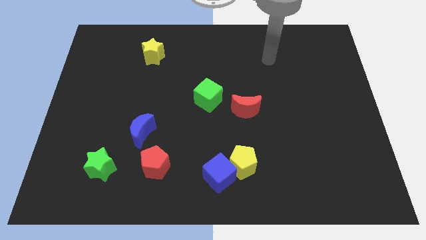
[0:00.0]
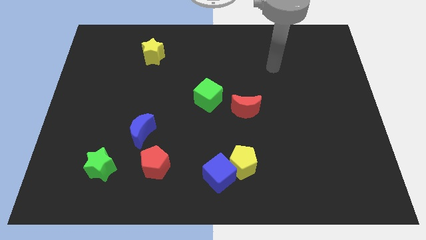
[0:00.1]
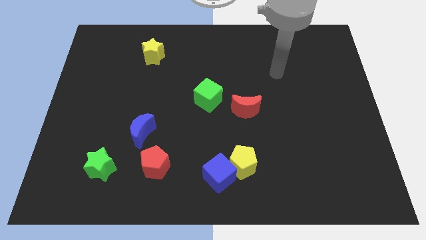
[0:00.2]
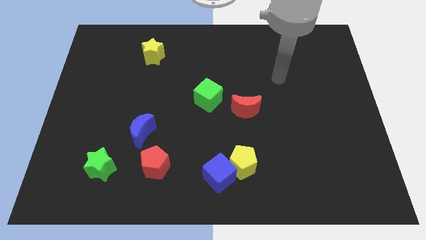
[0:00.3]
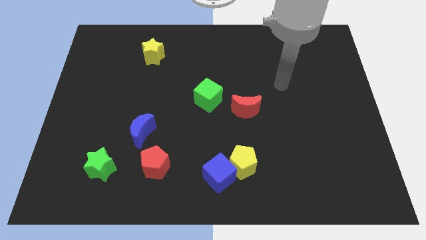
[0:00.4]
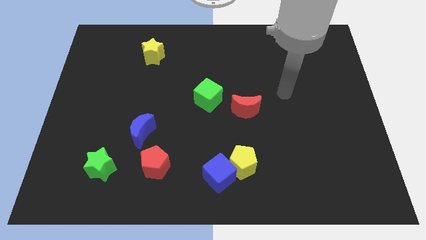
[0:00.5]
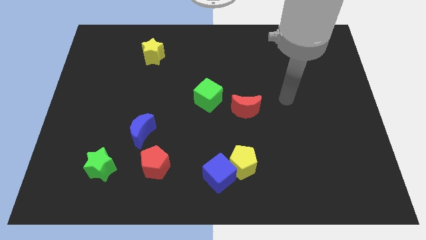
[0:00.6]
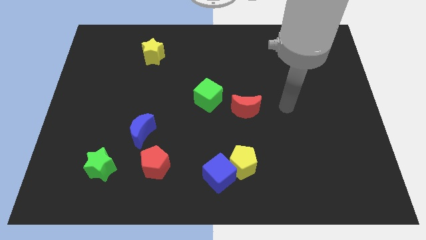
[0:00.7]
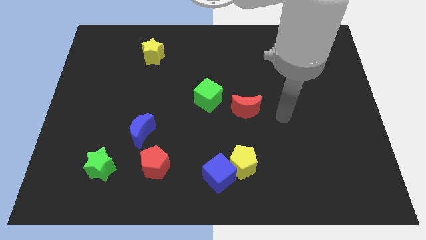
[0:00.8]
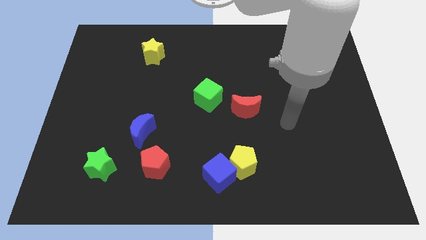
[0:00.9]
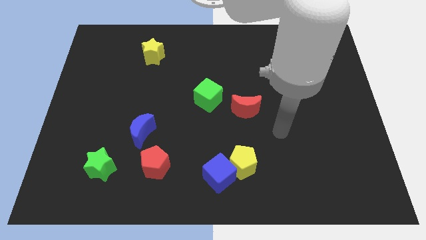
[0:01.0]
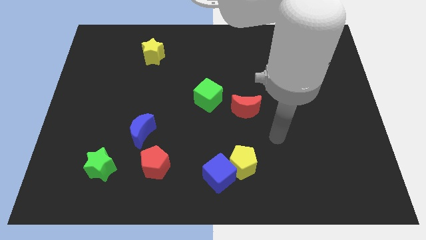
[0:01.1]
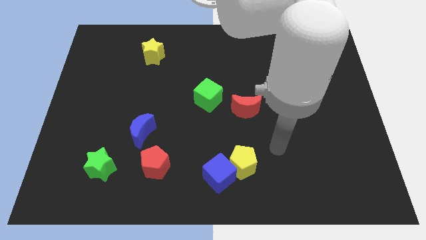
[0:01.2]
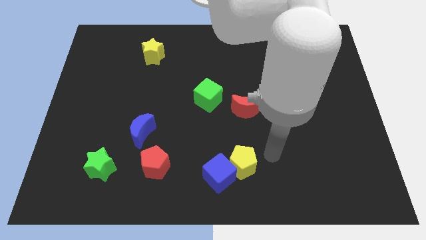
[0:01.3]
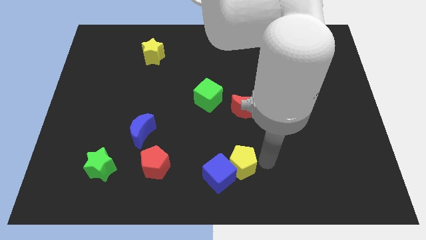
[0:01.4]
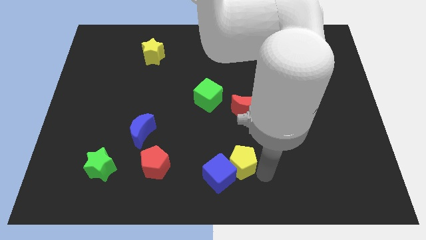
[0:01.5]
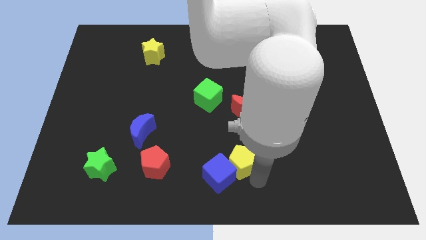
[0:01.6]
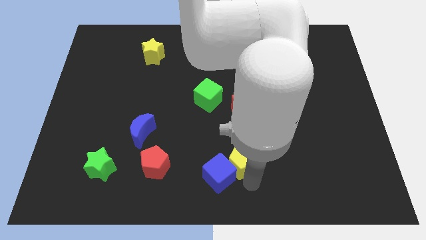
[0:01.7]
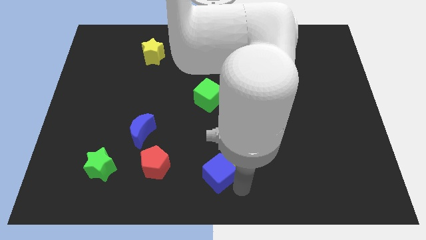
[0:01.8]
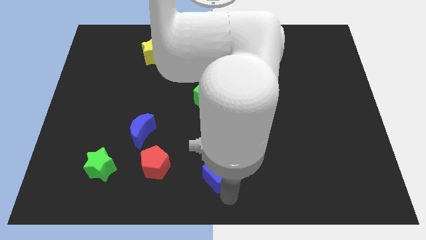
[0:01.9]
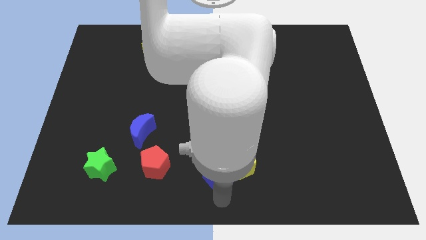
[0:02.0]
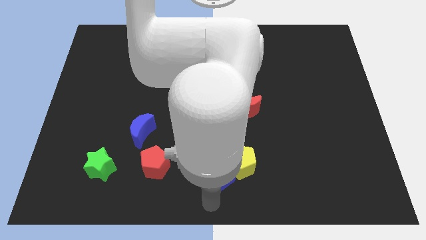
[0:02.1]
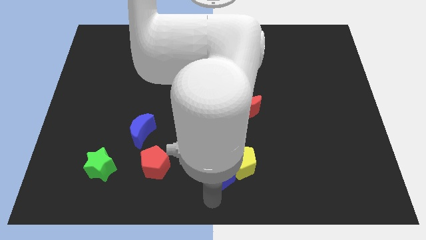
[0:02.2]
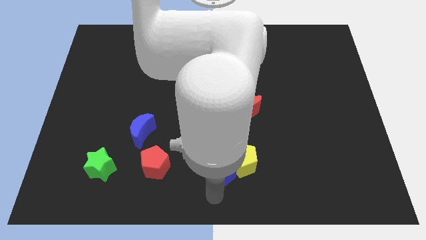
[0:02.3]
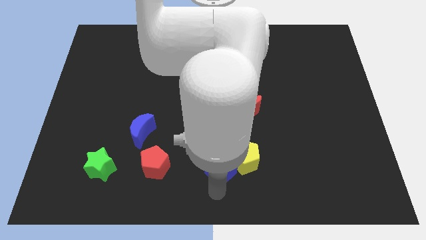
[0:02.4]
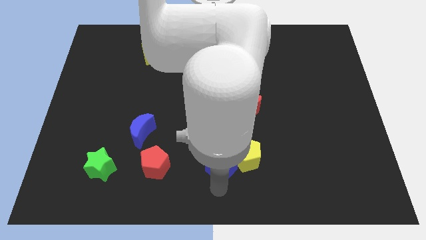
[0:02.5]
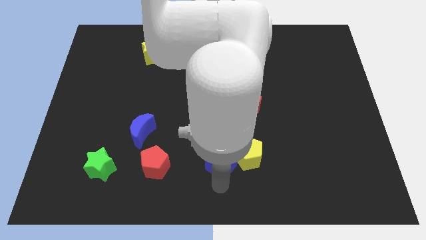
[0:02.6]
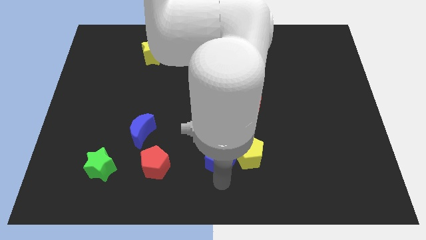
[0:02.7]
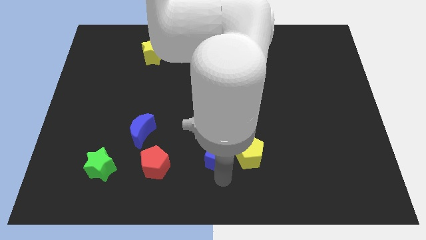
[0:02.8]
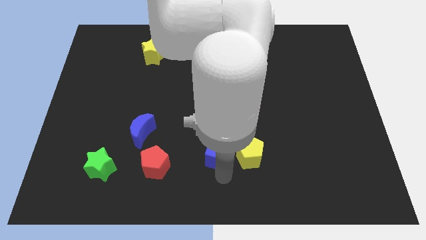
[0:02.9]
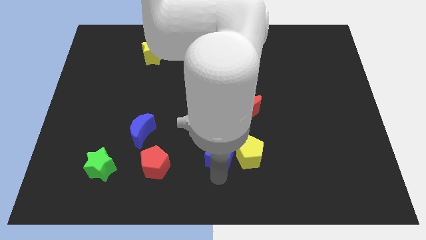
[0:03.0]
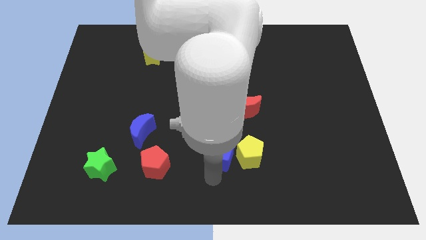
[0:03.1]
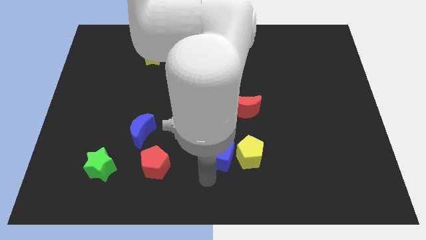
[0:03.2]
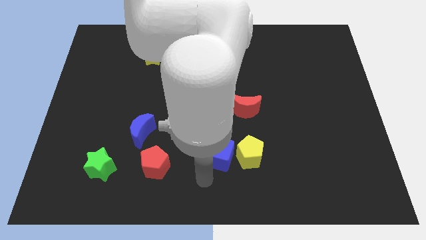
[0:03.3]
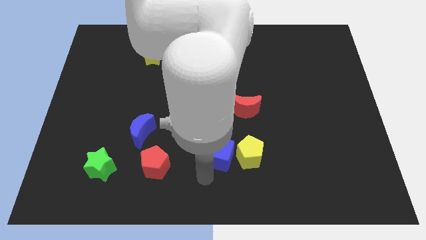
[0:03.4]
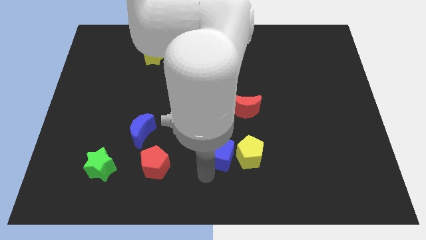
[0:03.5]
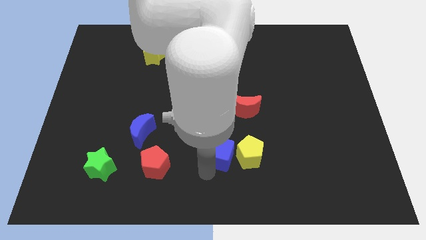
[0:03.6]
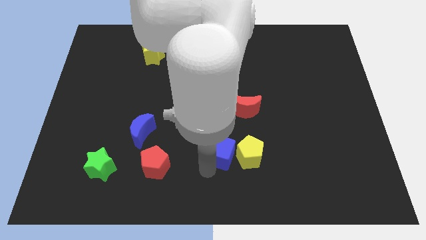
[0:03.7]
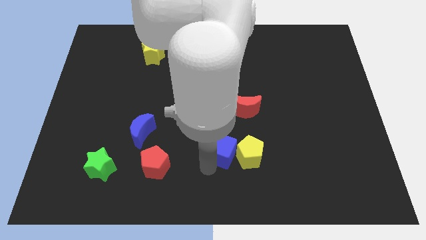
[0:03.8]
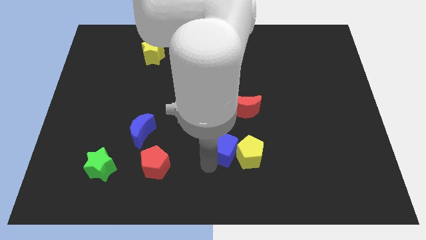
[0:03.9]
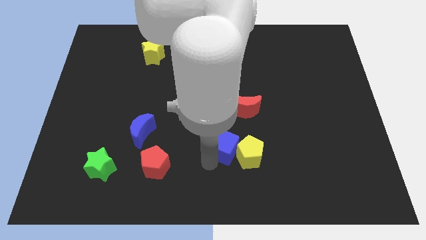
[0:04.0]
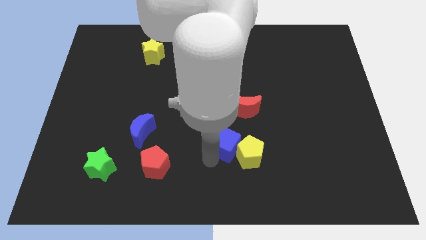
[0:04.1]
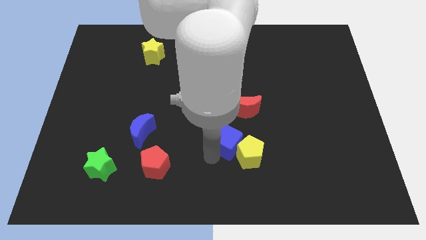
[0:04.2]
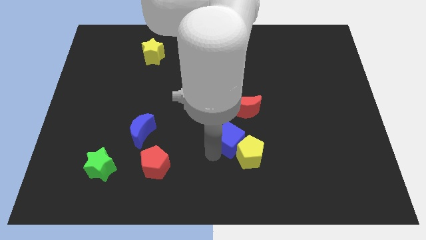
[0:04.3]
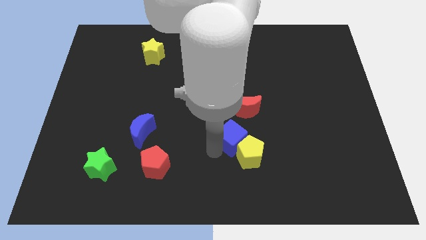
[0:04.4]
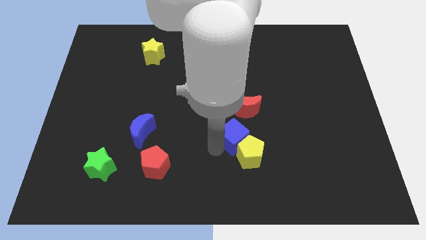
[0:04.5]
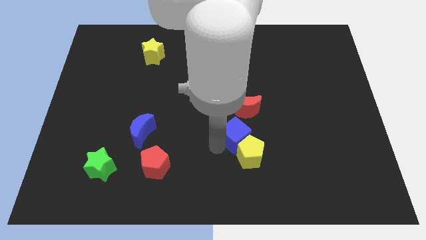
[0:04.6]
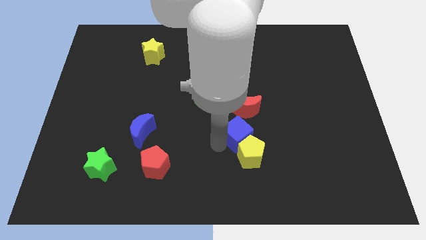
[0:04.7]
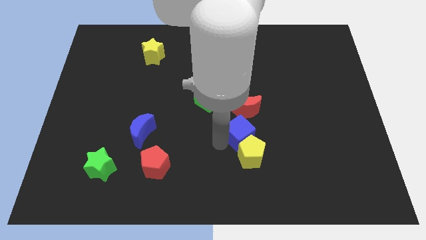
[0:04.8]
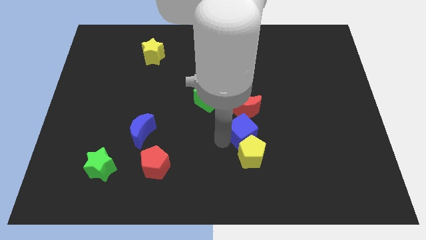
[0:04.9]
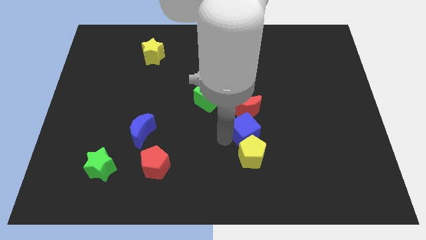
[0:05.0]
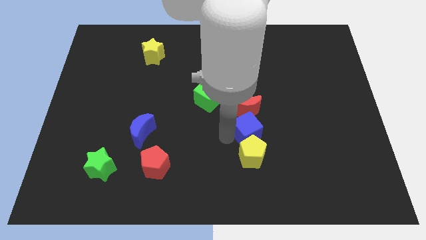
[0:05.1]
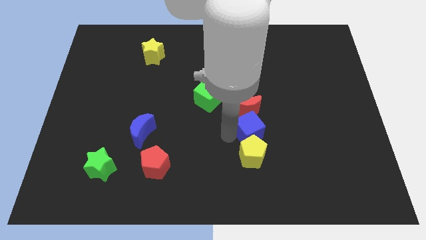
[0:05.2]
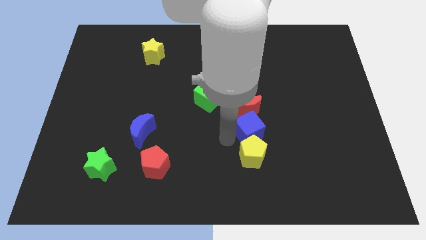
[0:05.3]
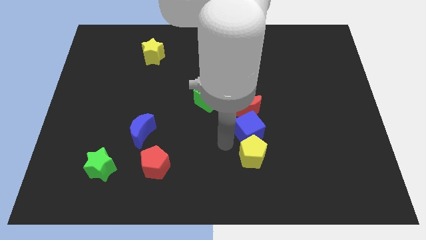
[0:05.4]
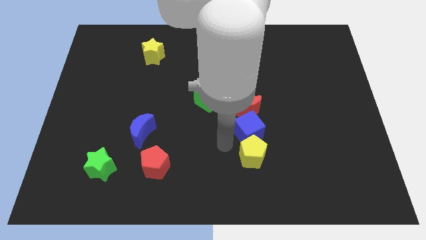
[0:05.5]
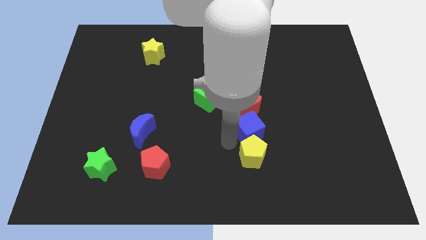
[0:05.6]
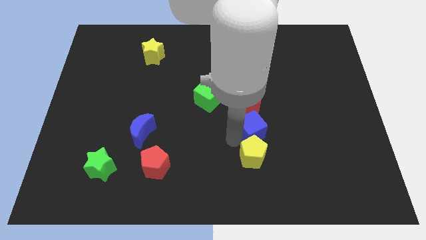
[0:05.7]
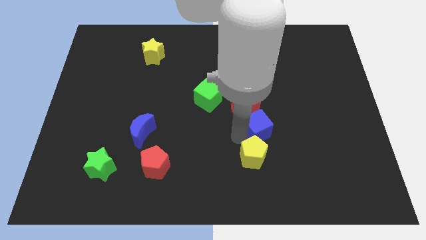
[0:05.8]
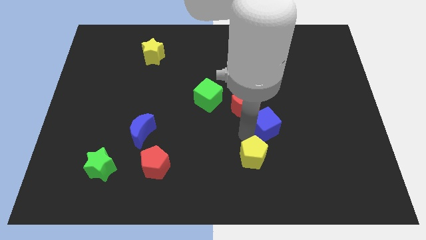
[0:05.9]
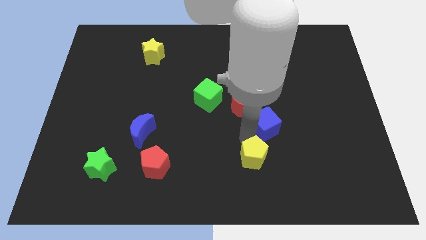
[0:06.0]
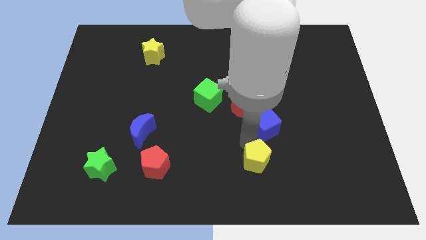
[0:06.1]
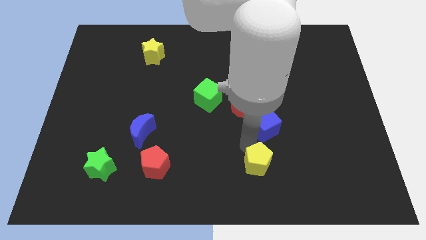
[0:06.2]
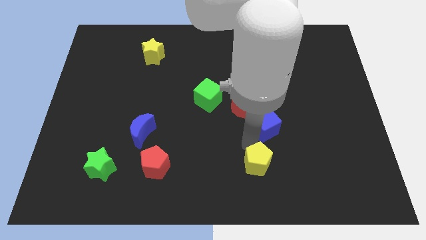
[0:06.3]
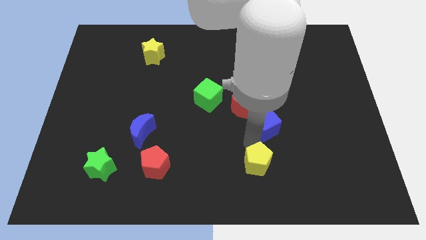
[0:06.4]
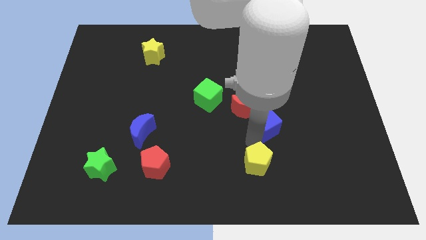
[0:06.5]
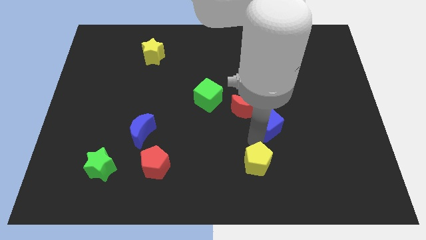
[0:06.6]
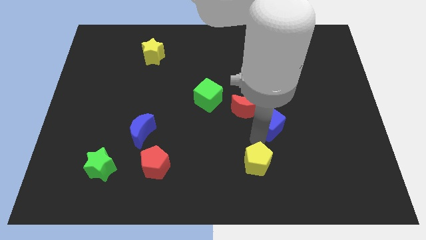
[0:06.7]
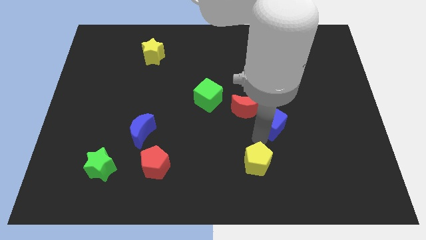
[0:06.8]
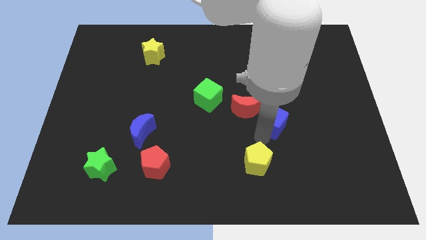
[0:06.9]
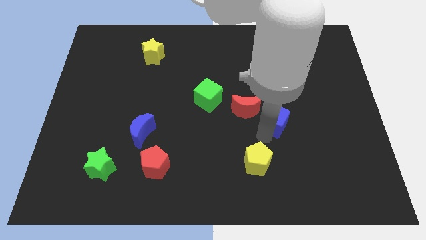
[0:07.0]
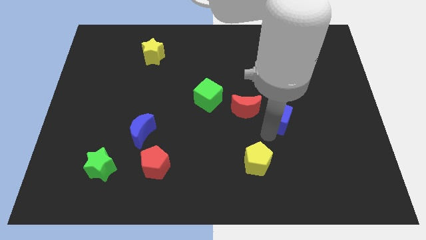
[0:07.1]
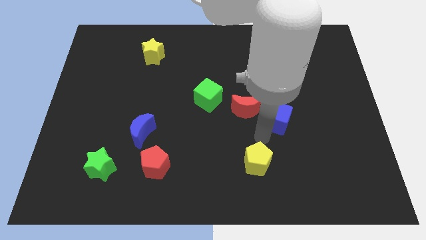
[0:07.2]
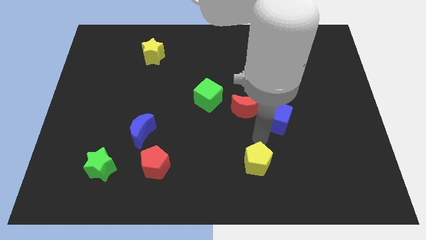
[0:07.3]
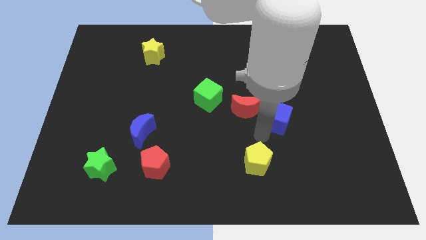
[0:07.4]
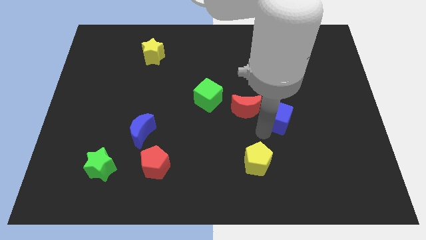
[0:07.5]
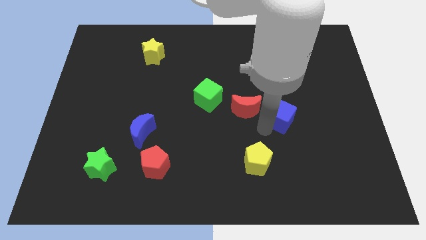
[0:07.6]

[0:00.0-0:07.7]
slide the blue cube diagonally upwards and right

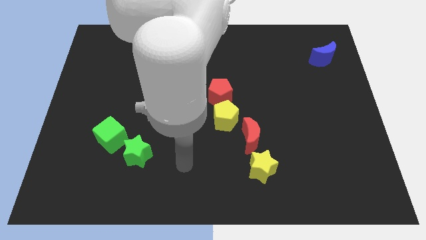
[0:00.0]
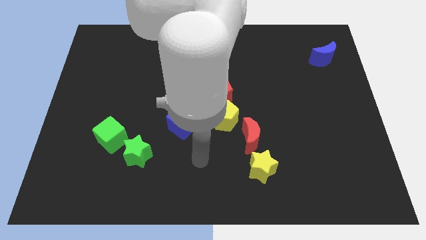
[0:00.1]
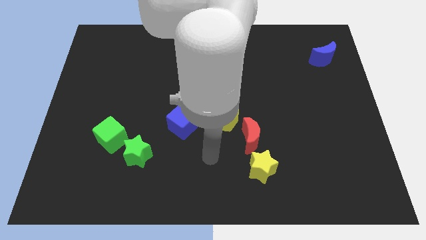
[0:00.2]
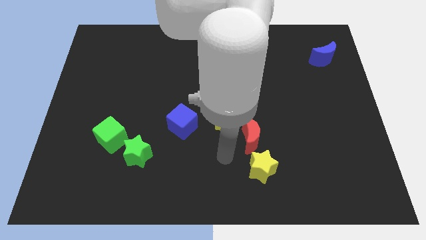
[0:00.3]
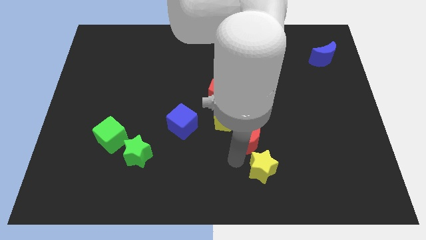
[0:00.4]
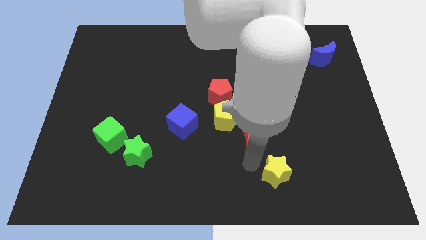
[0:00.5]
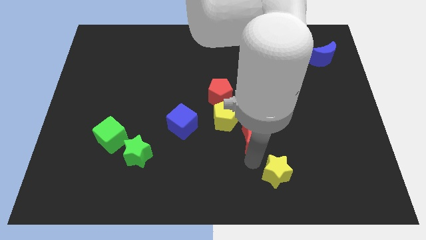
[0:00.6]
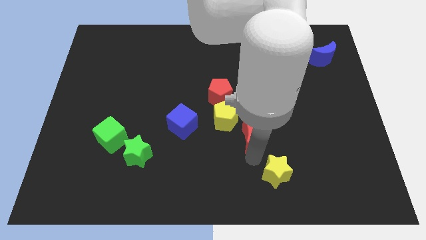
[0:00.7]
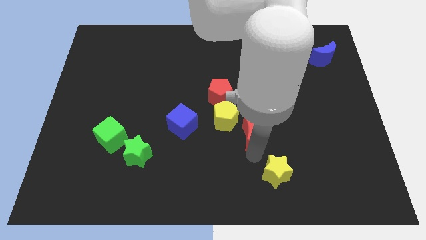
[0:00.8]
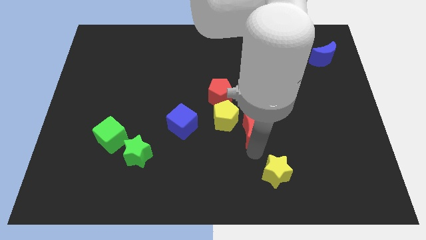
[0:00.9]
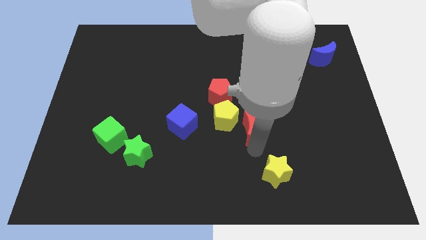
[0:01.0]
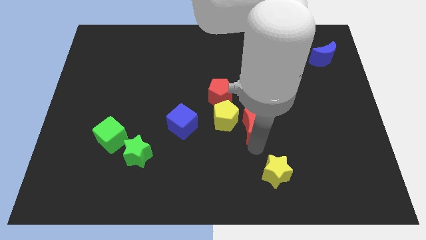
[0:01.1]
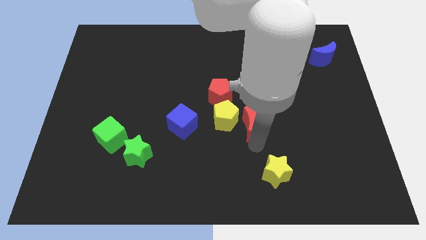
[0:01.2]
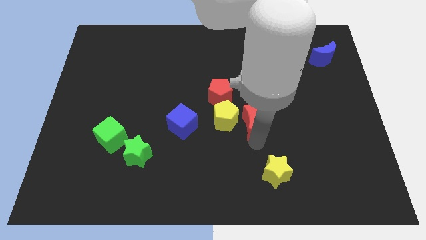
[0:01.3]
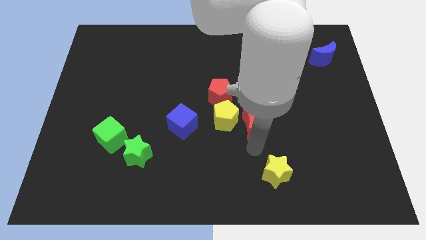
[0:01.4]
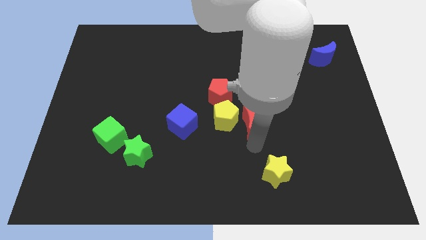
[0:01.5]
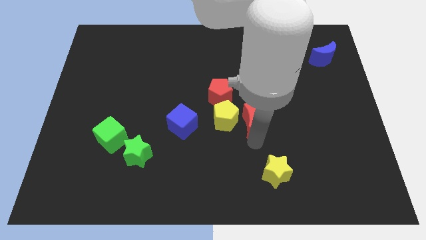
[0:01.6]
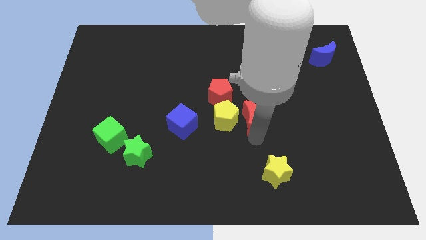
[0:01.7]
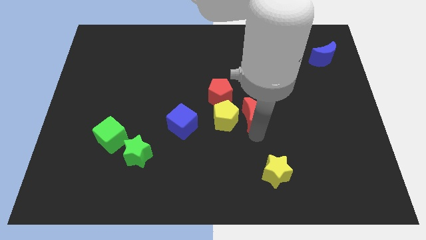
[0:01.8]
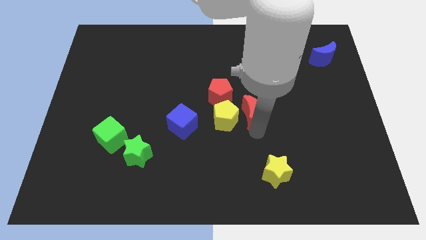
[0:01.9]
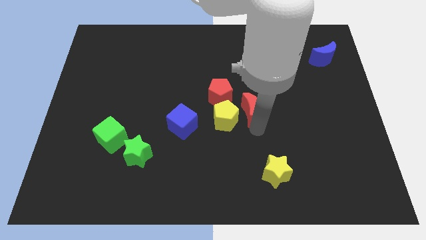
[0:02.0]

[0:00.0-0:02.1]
move the red moon a bit up
